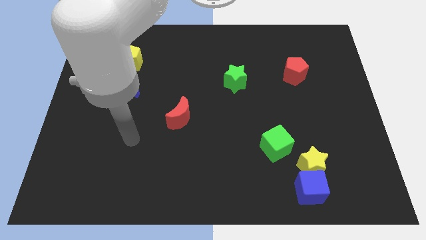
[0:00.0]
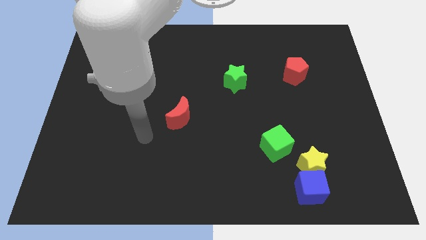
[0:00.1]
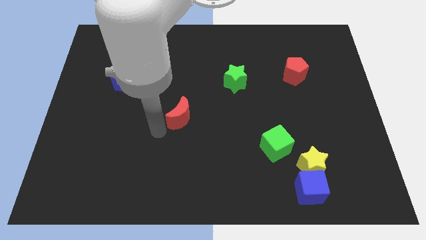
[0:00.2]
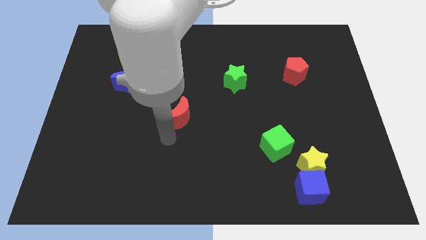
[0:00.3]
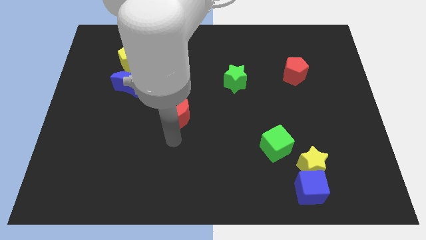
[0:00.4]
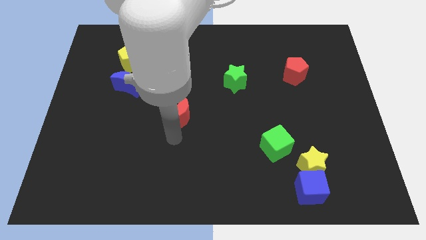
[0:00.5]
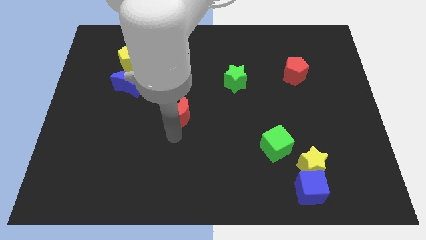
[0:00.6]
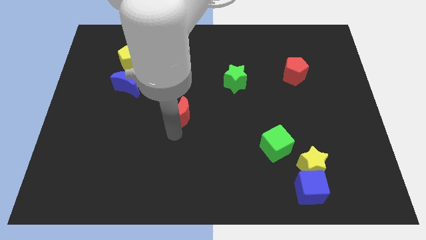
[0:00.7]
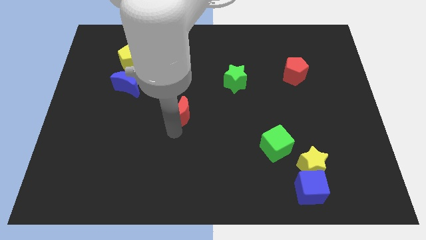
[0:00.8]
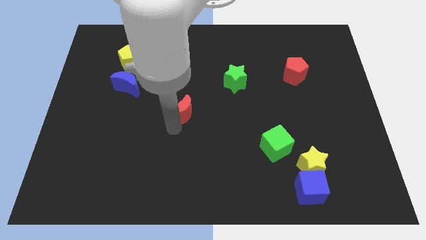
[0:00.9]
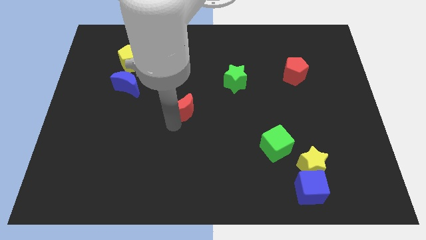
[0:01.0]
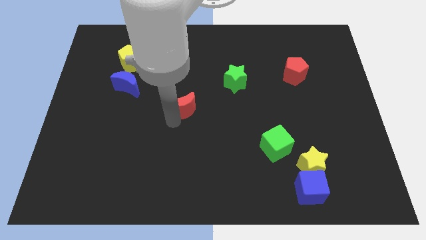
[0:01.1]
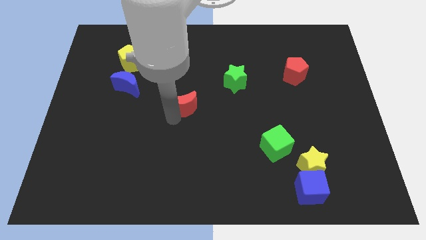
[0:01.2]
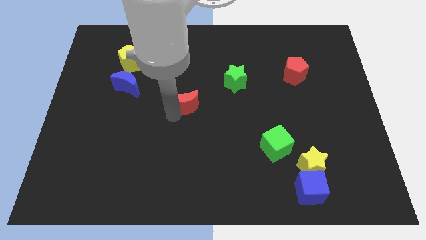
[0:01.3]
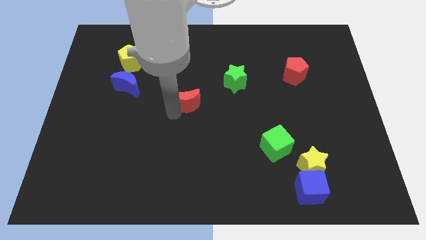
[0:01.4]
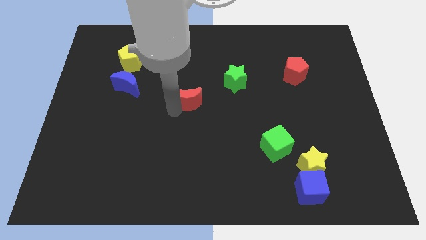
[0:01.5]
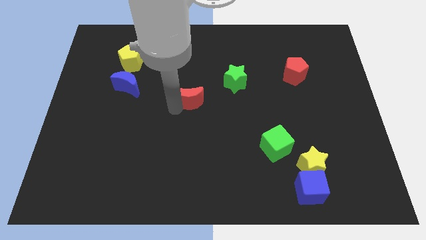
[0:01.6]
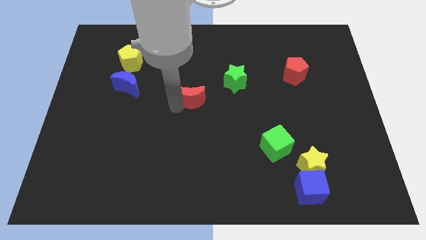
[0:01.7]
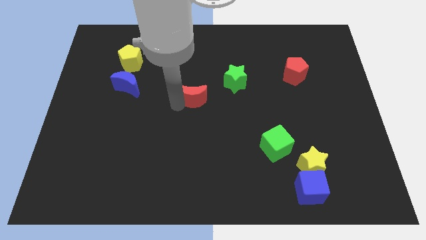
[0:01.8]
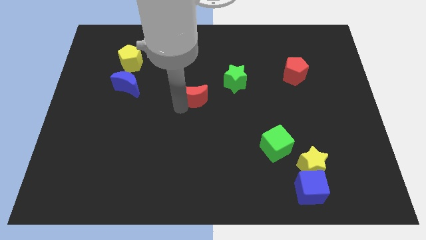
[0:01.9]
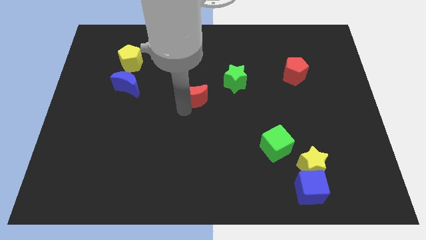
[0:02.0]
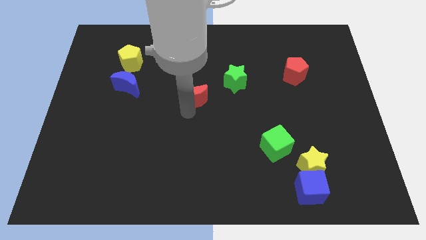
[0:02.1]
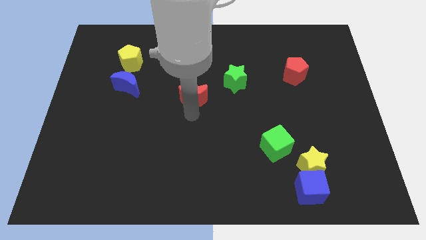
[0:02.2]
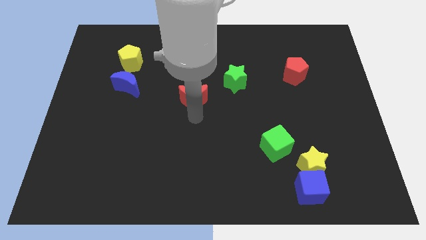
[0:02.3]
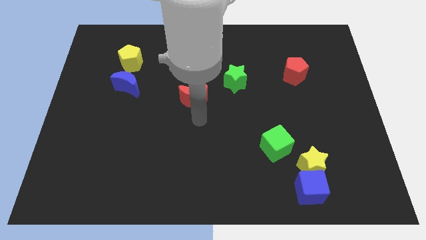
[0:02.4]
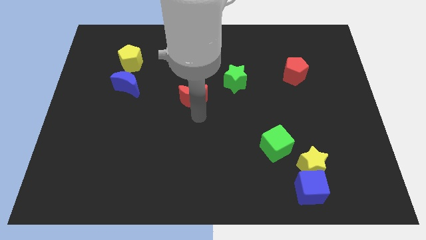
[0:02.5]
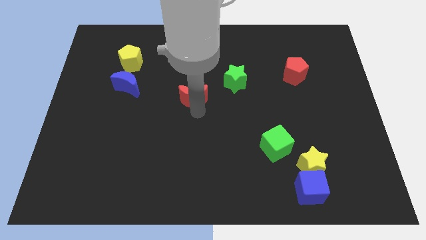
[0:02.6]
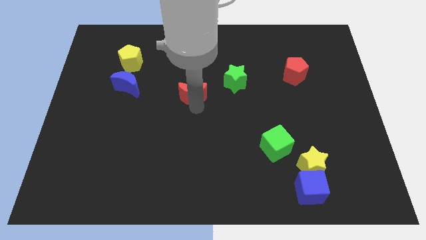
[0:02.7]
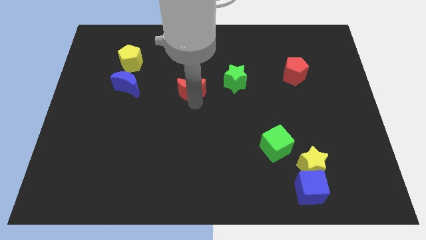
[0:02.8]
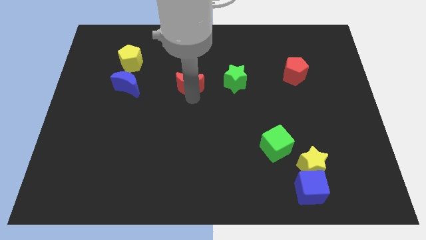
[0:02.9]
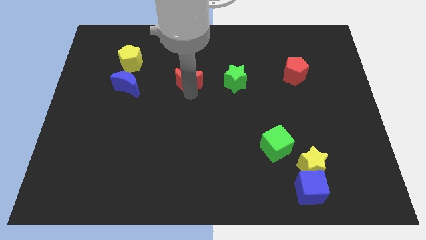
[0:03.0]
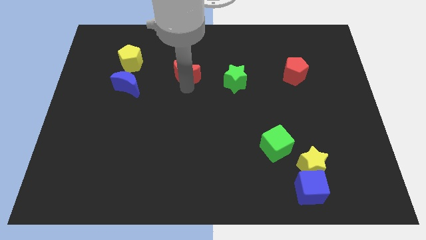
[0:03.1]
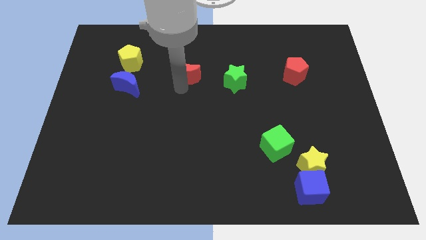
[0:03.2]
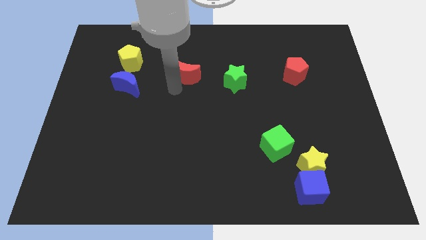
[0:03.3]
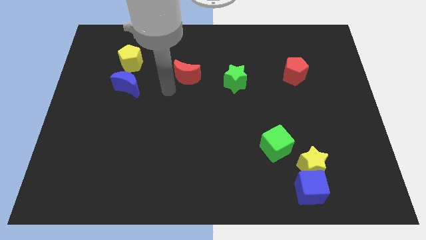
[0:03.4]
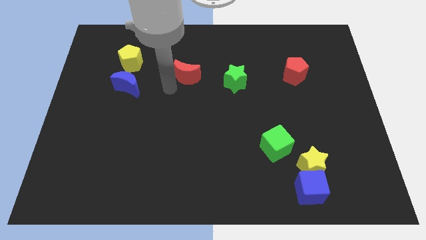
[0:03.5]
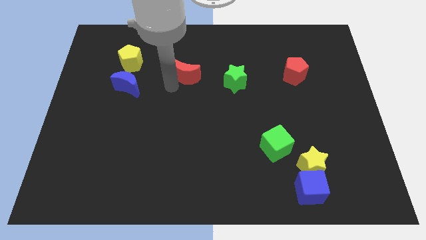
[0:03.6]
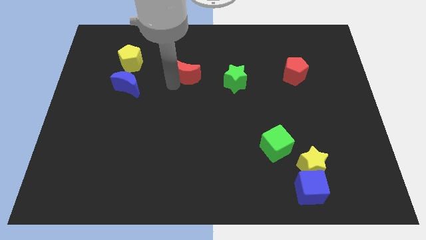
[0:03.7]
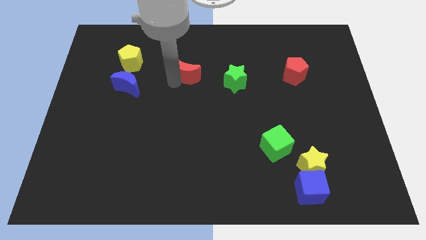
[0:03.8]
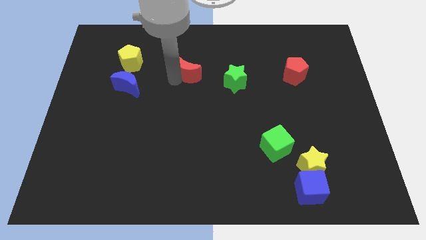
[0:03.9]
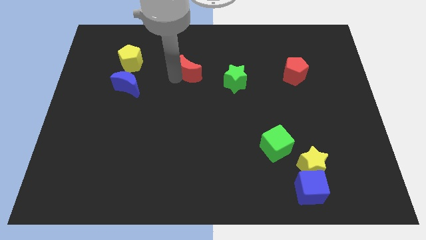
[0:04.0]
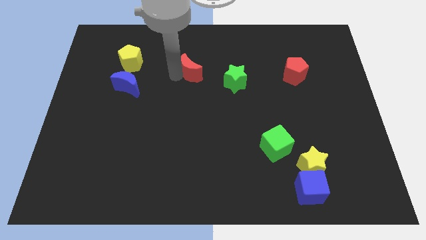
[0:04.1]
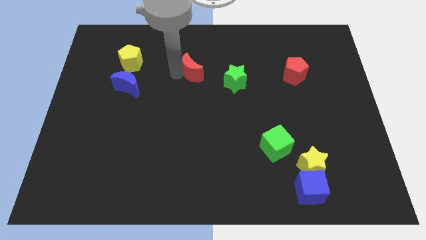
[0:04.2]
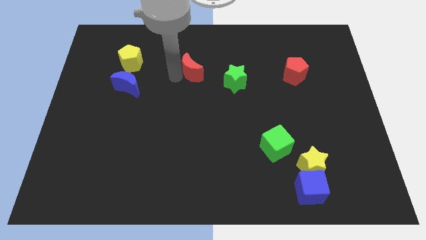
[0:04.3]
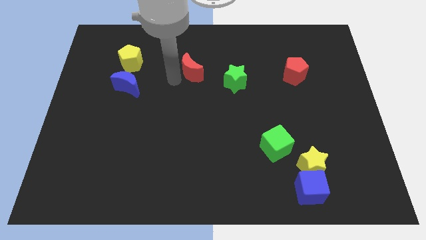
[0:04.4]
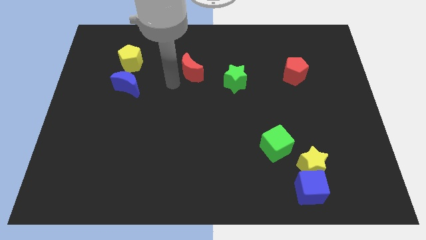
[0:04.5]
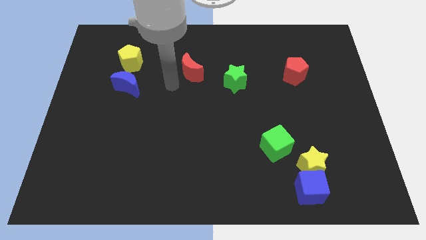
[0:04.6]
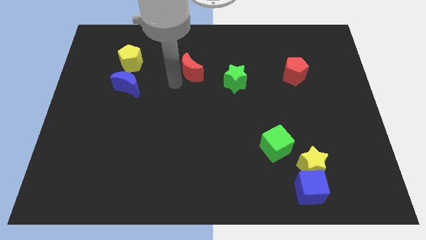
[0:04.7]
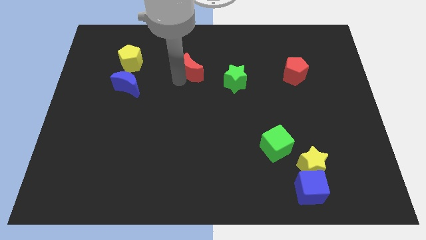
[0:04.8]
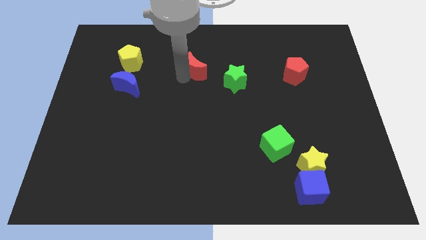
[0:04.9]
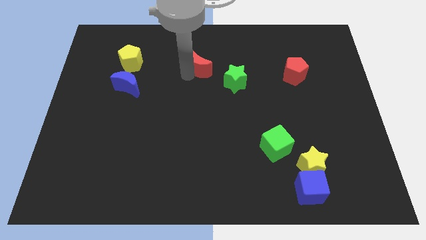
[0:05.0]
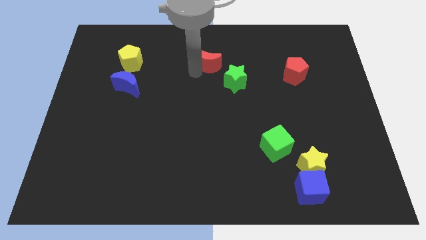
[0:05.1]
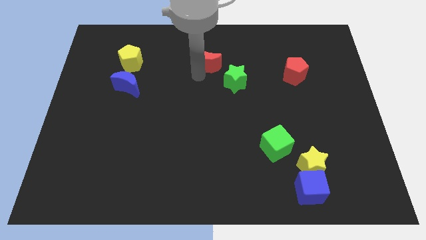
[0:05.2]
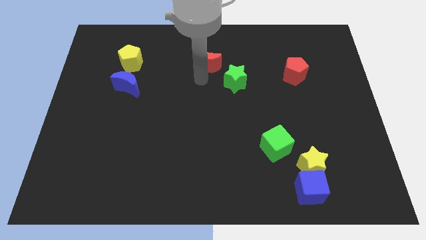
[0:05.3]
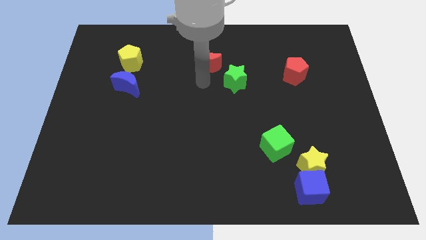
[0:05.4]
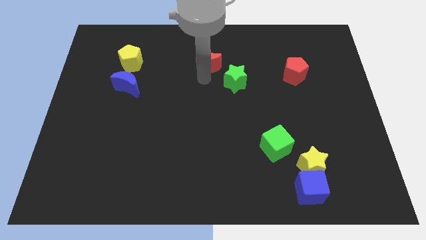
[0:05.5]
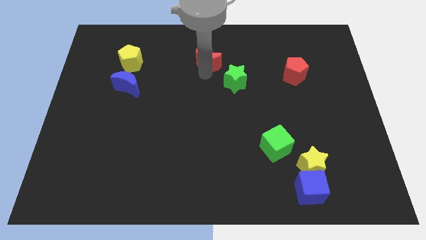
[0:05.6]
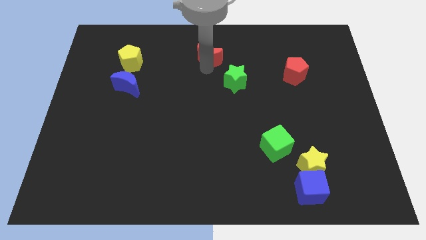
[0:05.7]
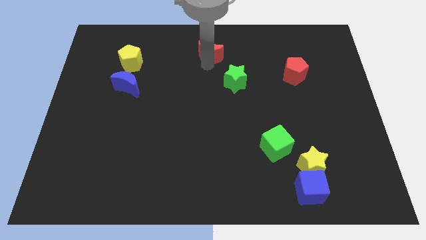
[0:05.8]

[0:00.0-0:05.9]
slide the red moon to the towards your base

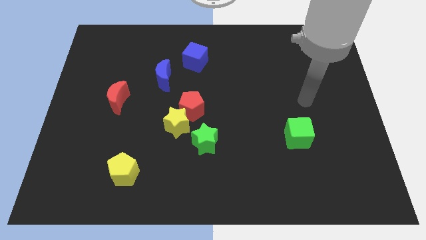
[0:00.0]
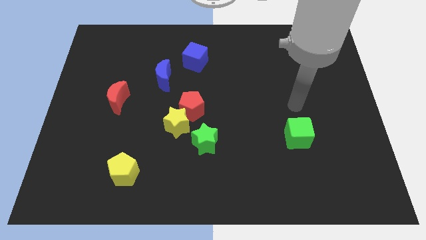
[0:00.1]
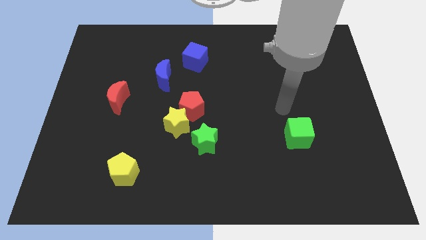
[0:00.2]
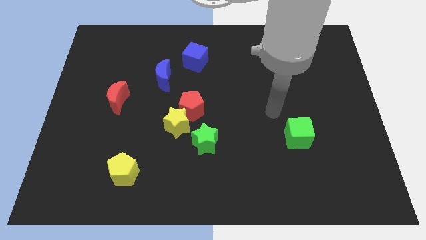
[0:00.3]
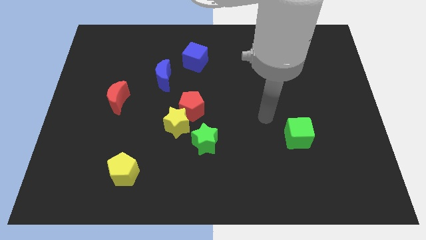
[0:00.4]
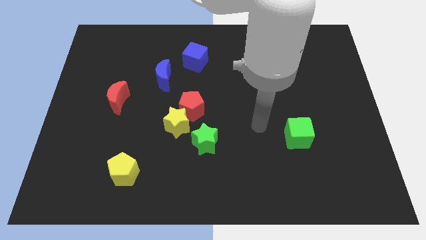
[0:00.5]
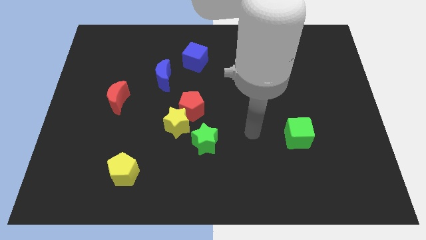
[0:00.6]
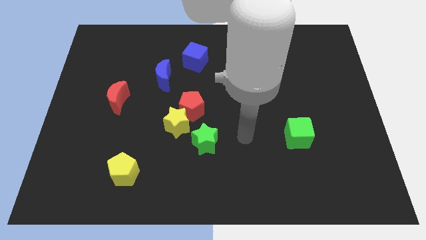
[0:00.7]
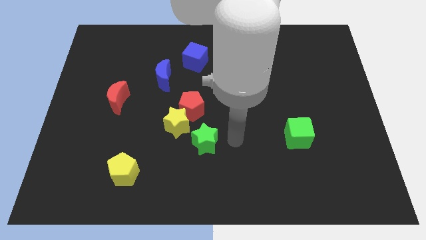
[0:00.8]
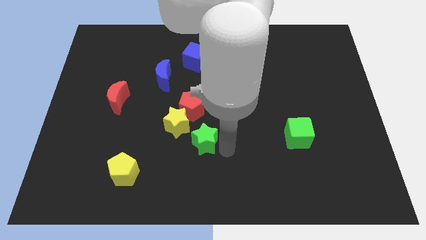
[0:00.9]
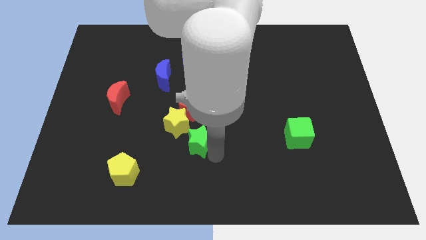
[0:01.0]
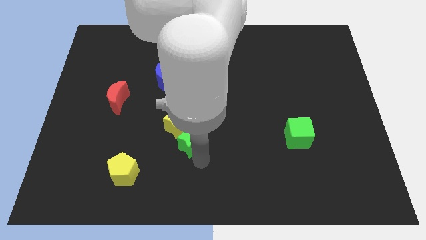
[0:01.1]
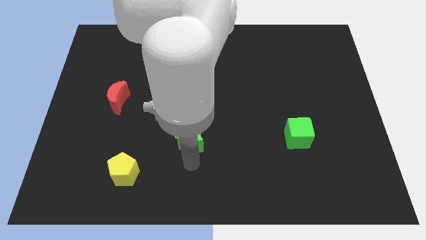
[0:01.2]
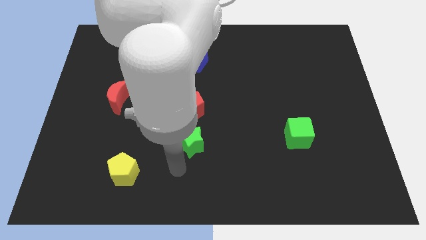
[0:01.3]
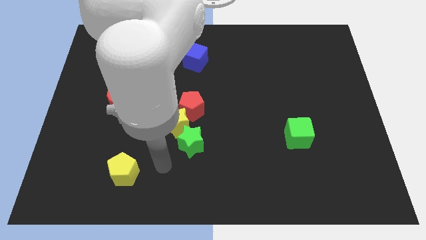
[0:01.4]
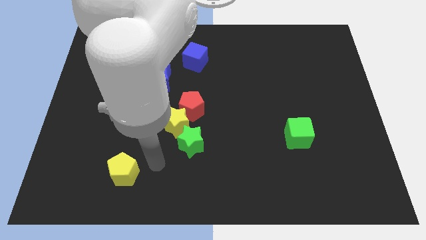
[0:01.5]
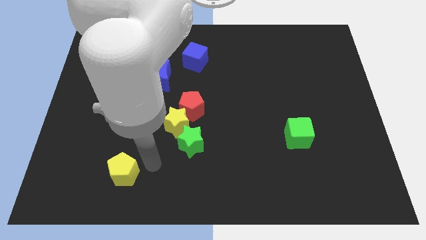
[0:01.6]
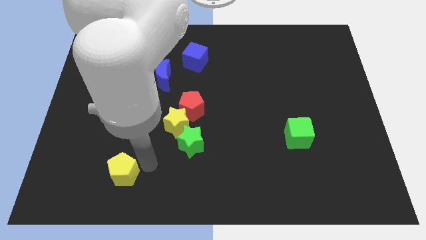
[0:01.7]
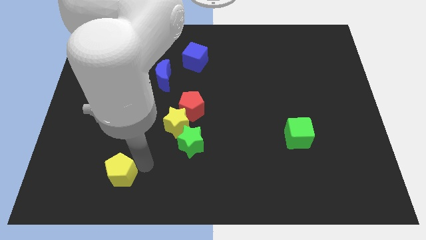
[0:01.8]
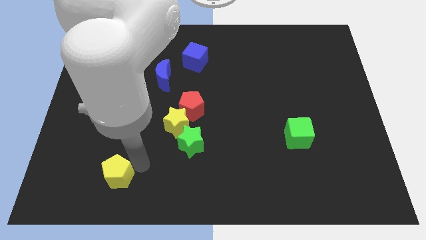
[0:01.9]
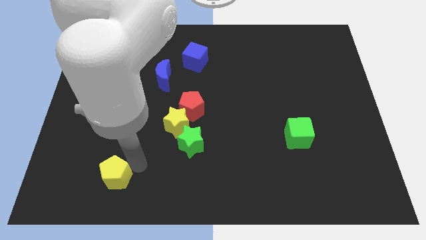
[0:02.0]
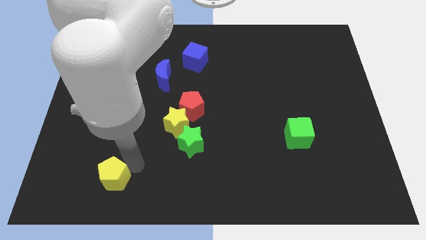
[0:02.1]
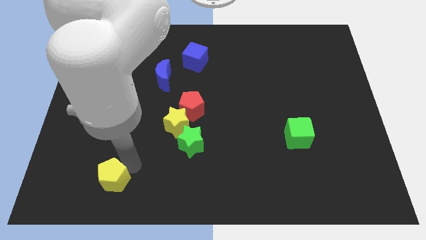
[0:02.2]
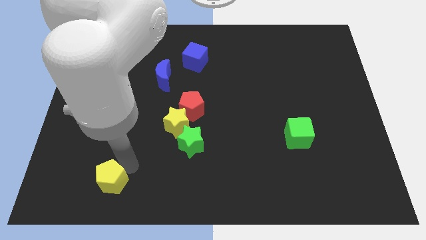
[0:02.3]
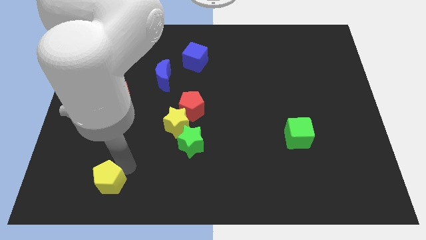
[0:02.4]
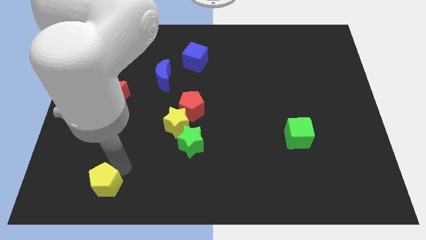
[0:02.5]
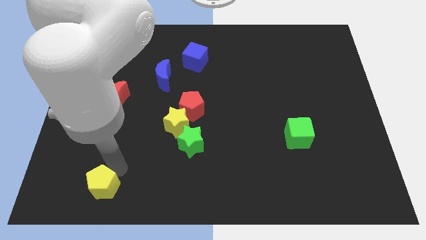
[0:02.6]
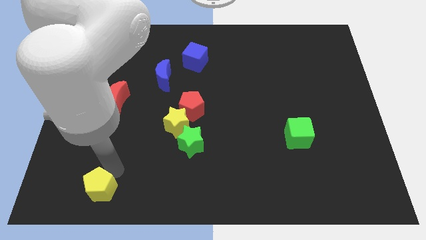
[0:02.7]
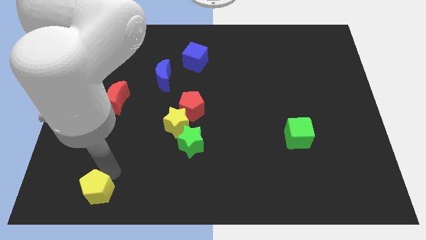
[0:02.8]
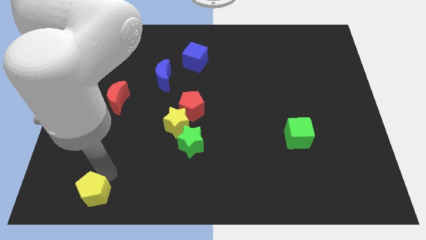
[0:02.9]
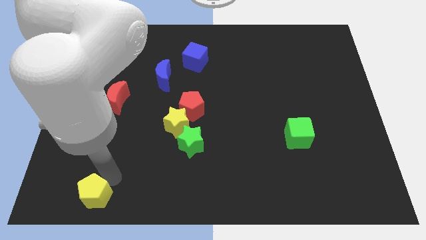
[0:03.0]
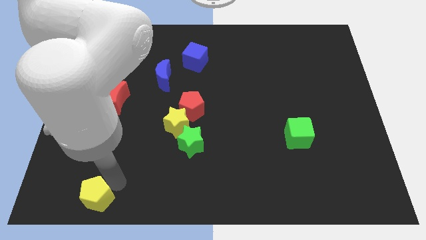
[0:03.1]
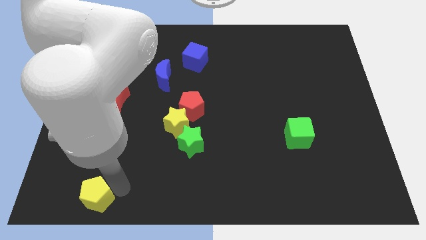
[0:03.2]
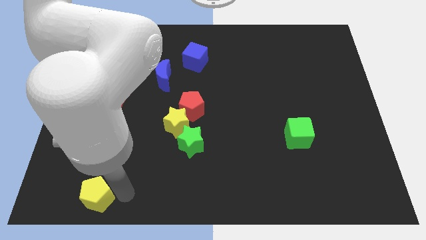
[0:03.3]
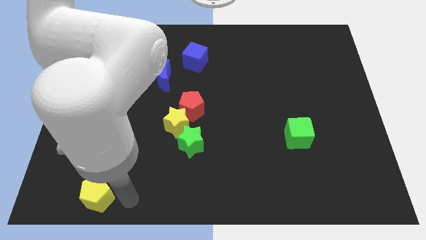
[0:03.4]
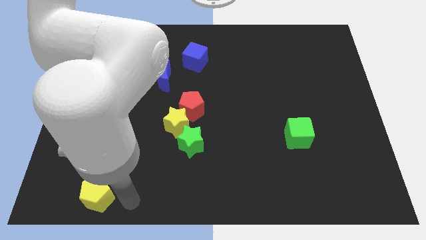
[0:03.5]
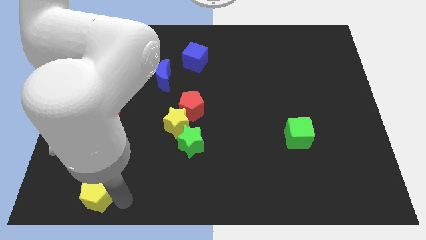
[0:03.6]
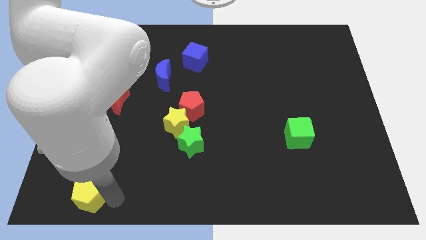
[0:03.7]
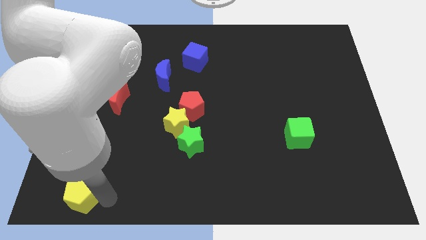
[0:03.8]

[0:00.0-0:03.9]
put the yellow pentagon to the lower left corner
